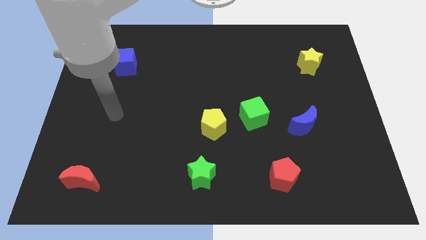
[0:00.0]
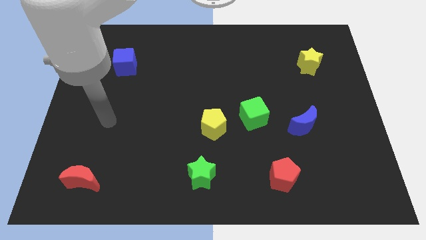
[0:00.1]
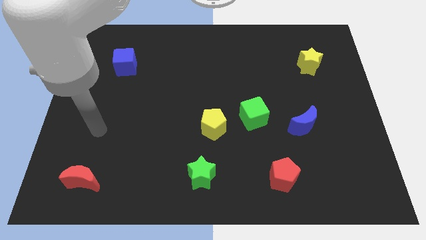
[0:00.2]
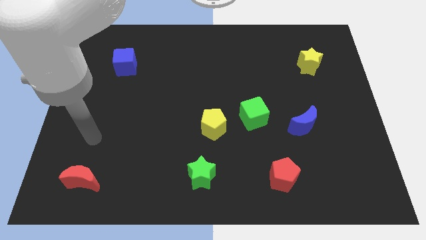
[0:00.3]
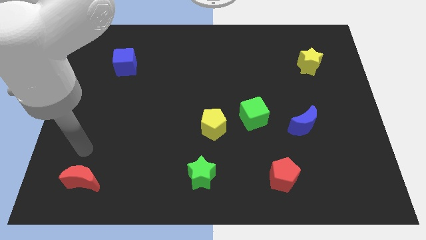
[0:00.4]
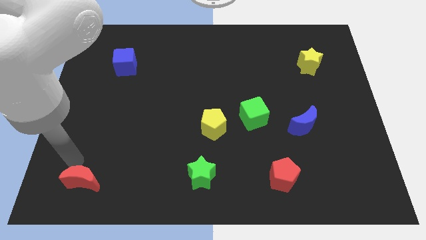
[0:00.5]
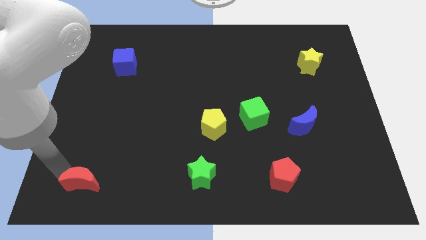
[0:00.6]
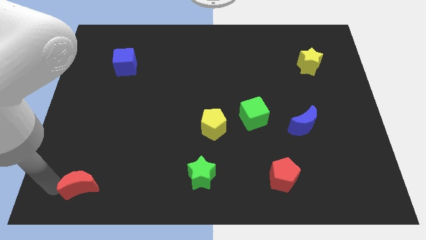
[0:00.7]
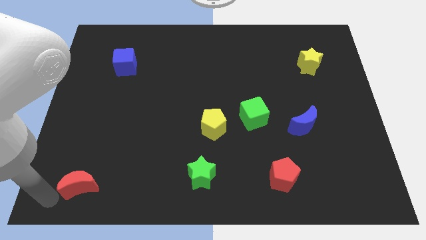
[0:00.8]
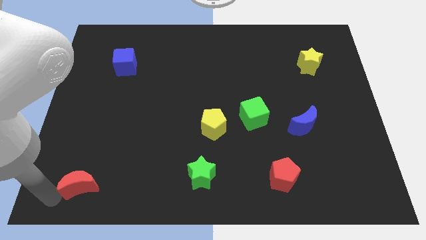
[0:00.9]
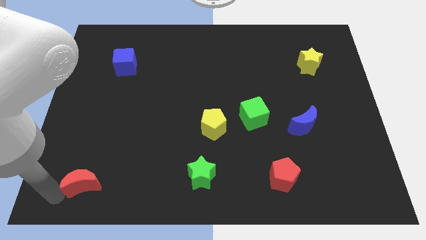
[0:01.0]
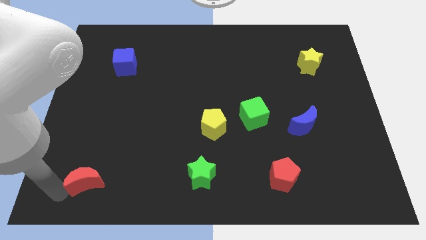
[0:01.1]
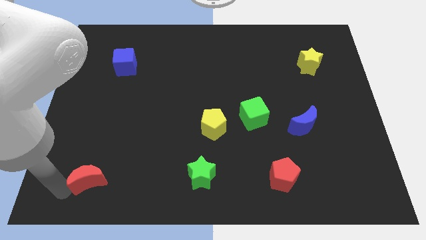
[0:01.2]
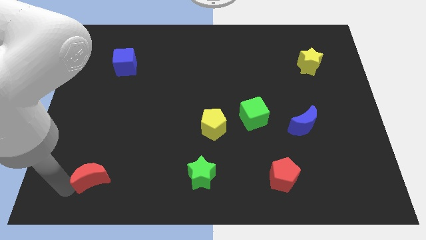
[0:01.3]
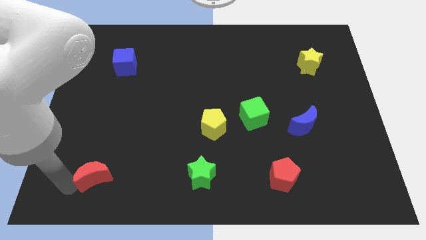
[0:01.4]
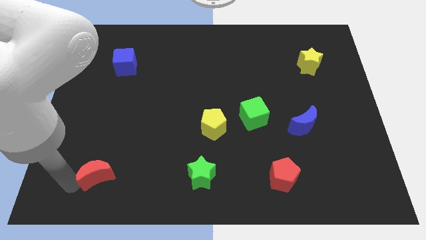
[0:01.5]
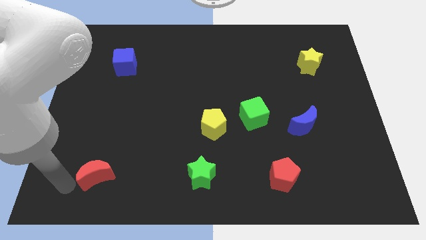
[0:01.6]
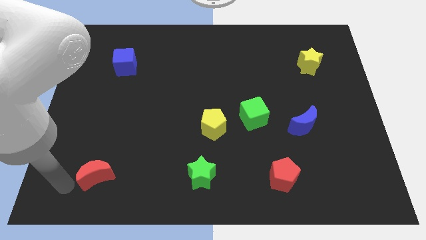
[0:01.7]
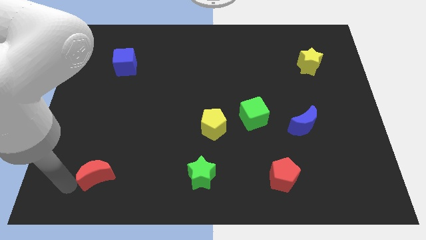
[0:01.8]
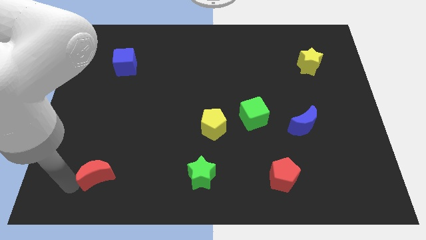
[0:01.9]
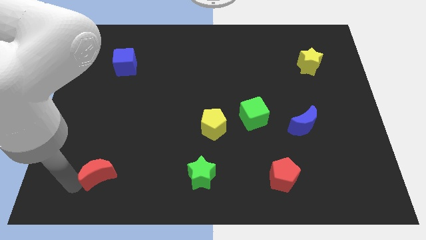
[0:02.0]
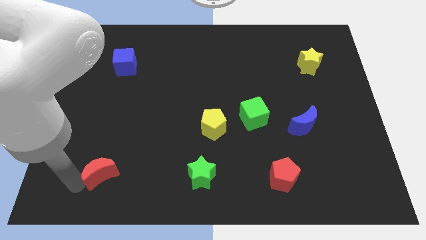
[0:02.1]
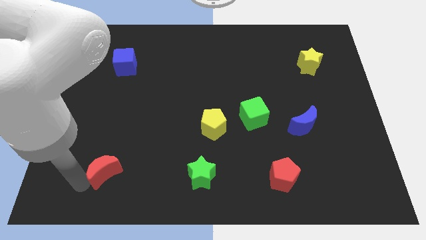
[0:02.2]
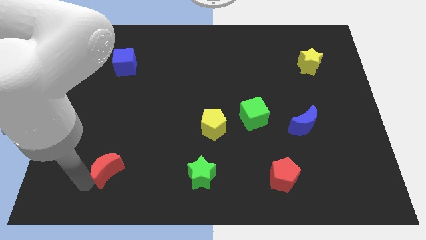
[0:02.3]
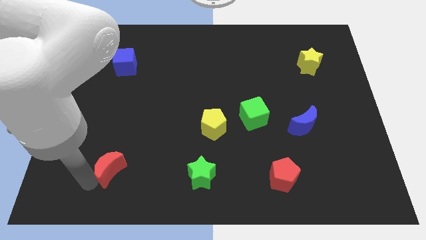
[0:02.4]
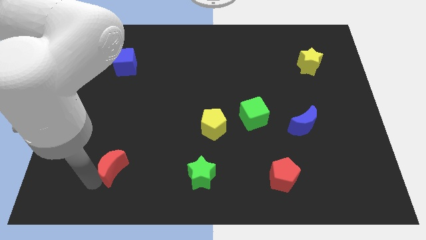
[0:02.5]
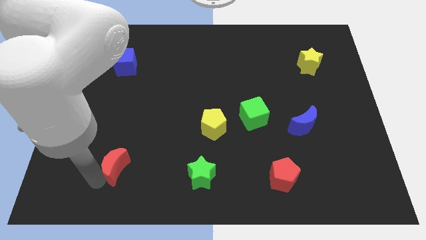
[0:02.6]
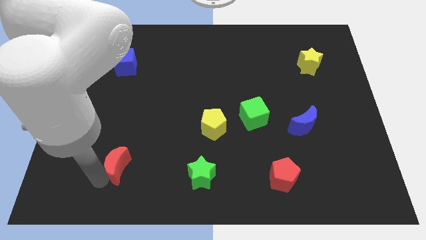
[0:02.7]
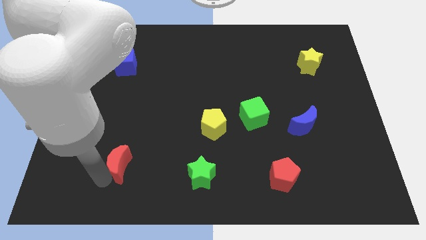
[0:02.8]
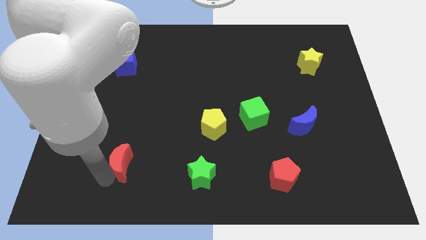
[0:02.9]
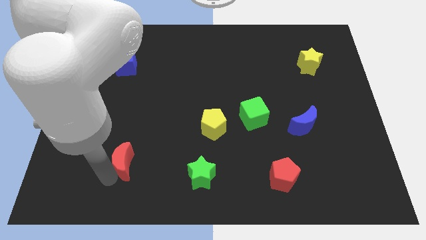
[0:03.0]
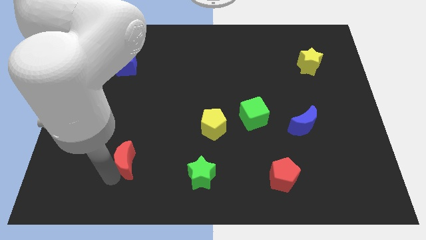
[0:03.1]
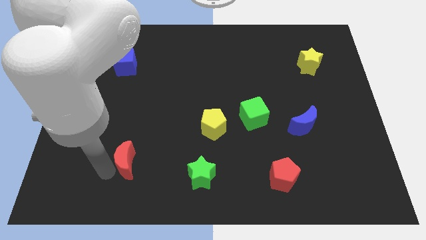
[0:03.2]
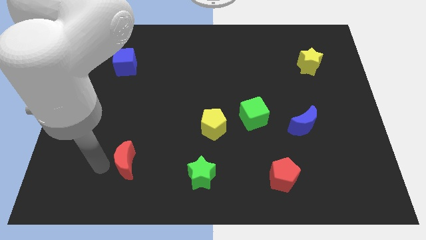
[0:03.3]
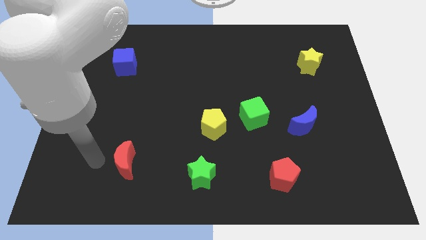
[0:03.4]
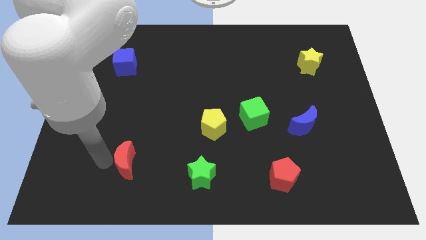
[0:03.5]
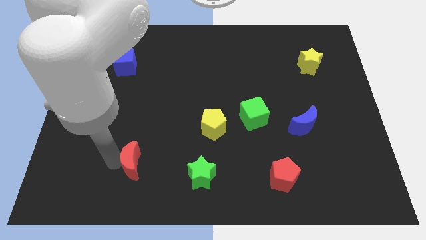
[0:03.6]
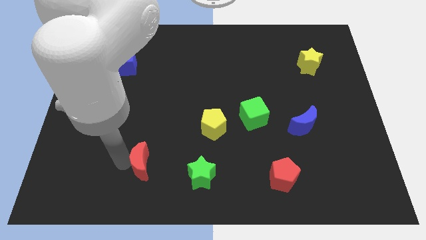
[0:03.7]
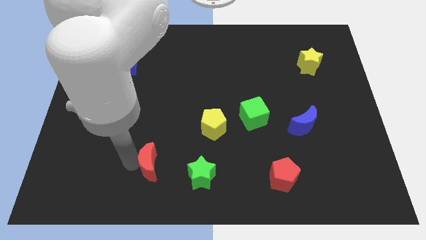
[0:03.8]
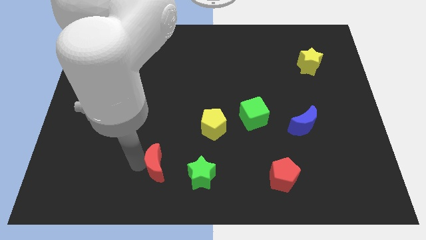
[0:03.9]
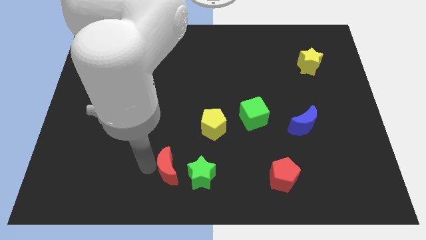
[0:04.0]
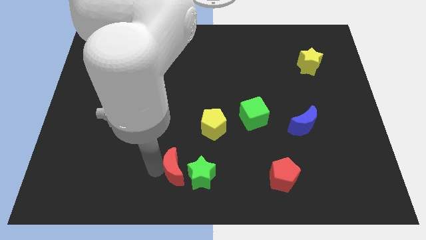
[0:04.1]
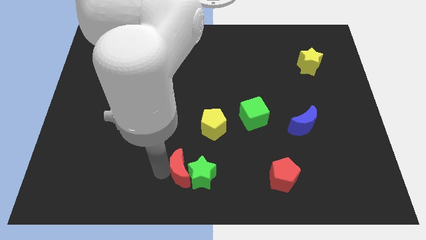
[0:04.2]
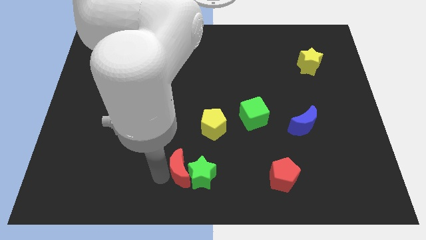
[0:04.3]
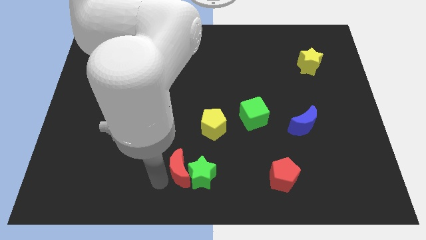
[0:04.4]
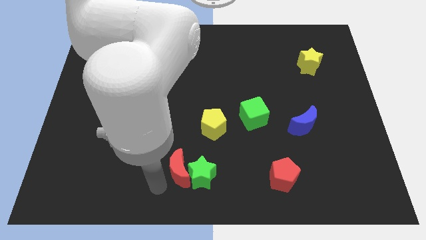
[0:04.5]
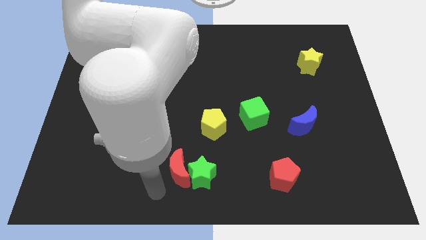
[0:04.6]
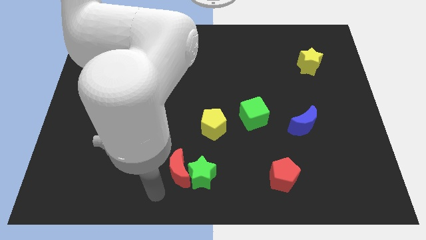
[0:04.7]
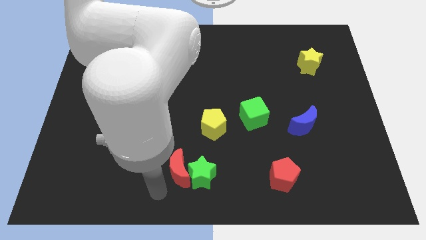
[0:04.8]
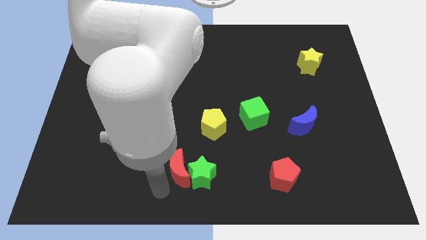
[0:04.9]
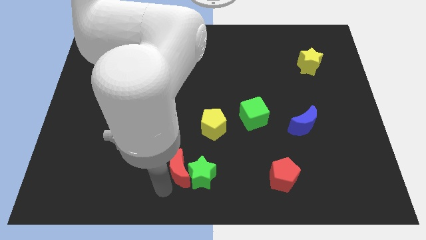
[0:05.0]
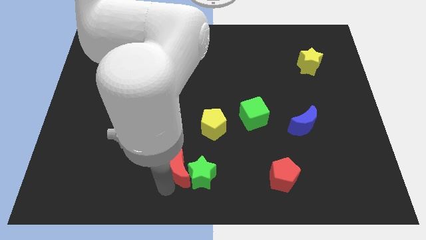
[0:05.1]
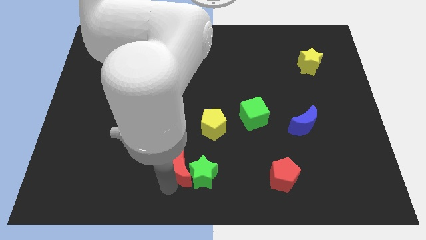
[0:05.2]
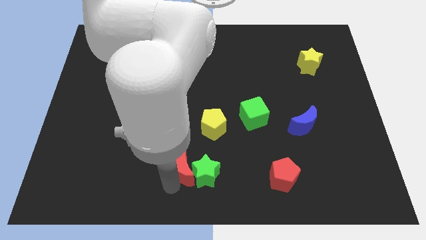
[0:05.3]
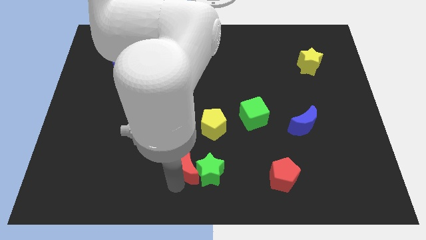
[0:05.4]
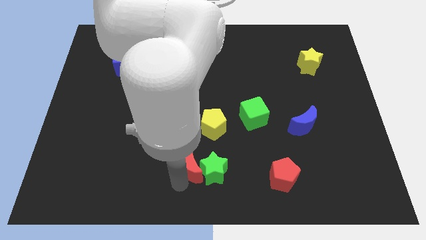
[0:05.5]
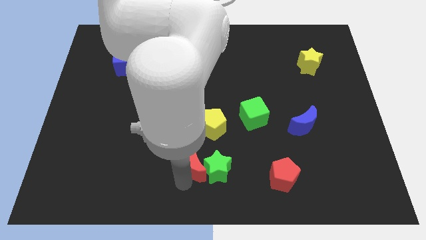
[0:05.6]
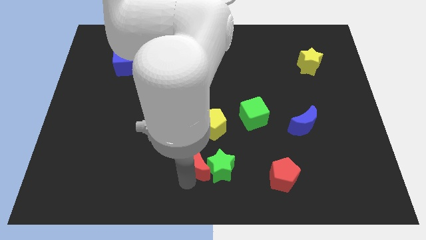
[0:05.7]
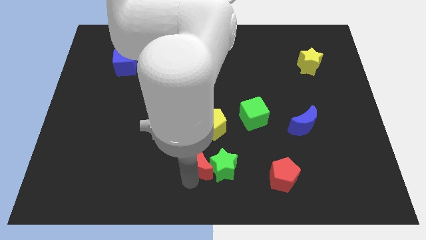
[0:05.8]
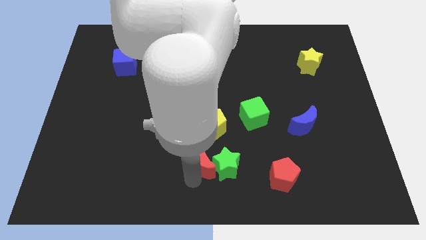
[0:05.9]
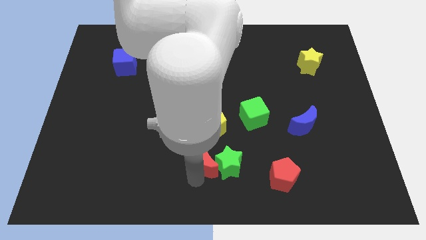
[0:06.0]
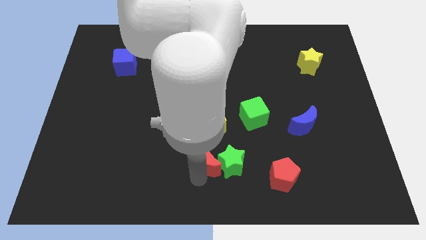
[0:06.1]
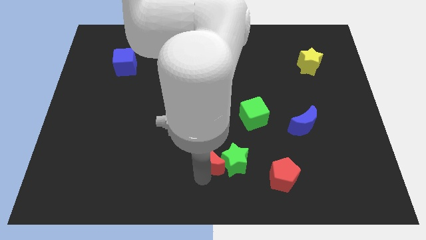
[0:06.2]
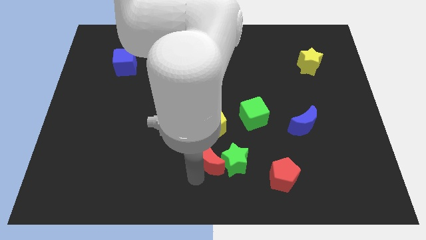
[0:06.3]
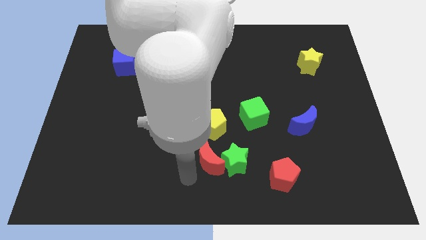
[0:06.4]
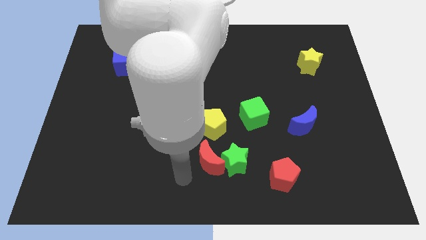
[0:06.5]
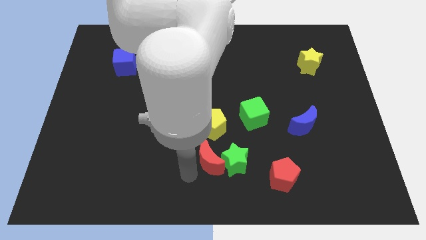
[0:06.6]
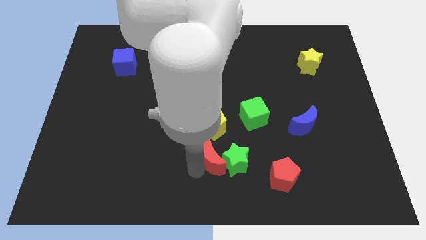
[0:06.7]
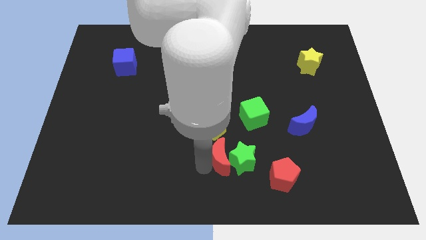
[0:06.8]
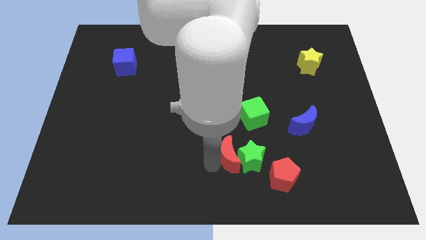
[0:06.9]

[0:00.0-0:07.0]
move the red moon to the bottom right side of the yellow pentagon
